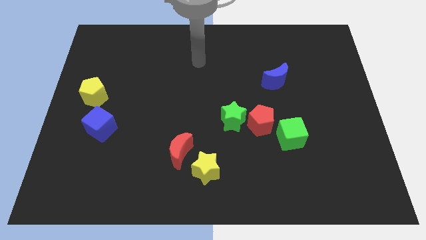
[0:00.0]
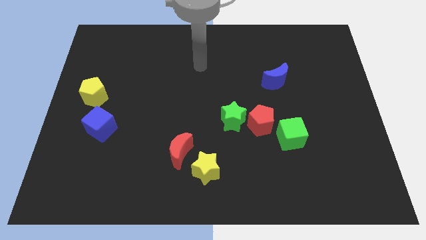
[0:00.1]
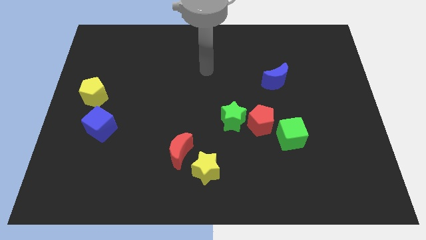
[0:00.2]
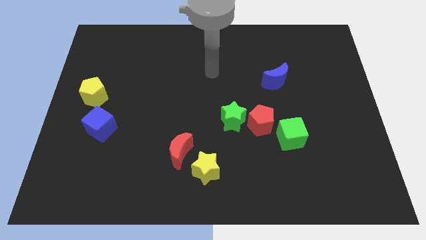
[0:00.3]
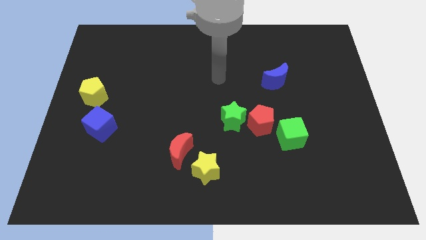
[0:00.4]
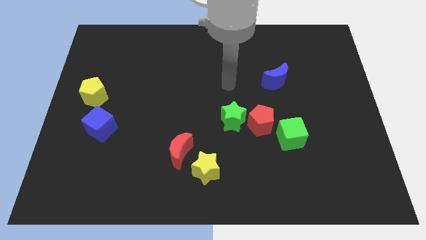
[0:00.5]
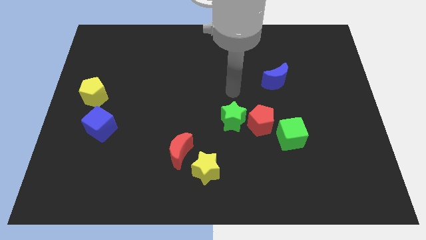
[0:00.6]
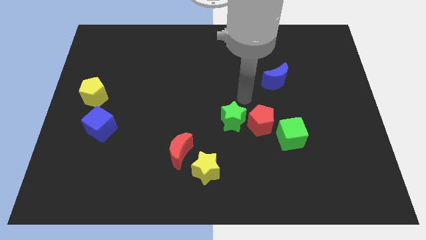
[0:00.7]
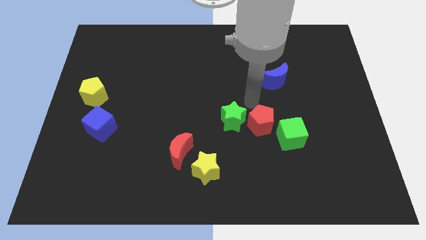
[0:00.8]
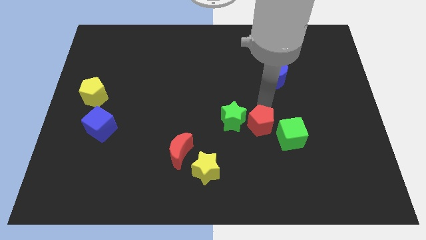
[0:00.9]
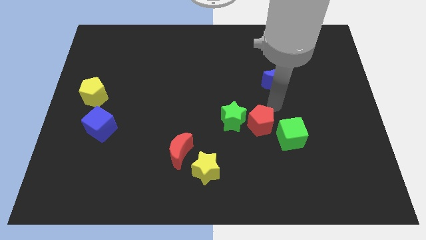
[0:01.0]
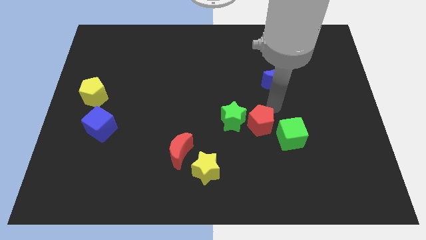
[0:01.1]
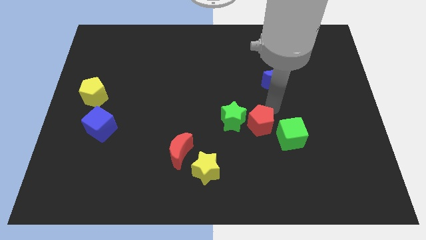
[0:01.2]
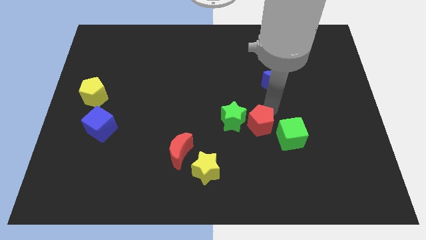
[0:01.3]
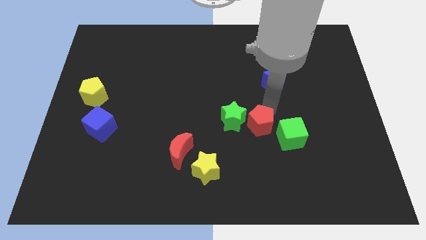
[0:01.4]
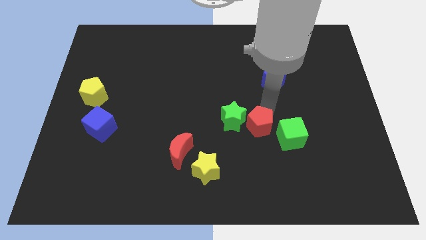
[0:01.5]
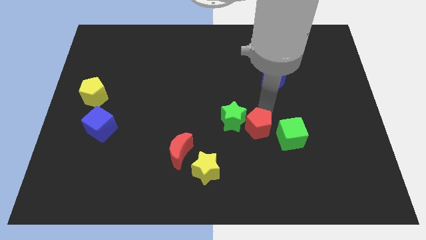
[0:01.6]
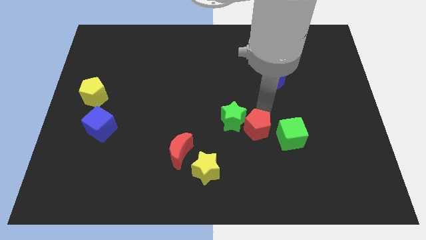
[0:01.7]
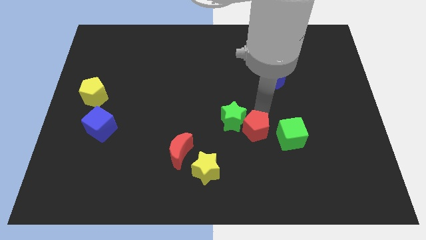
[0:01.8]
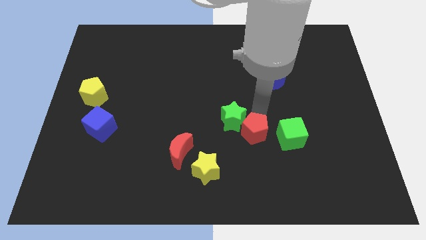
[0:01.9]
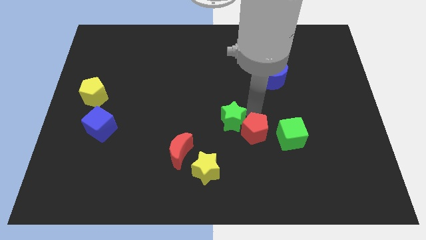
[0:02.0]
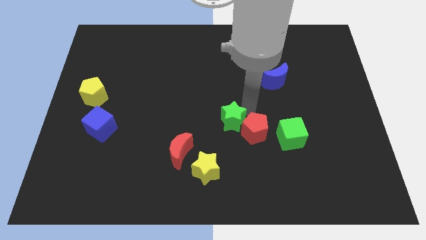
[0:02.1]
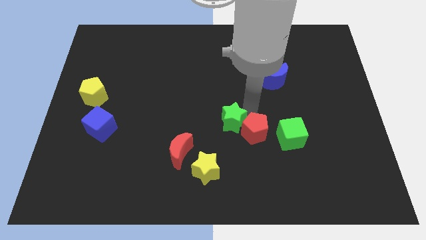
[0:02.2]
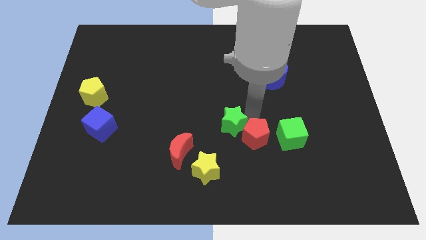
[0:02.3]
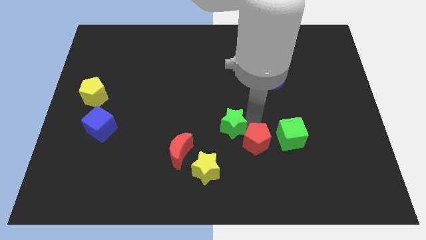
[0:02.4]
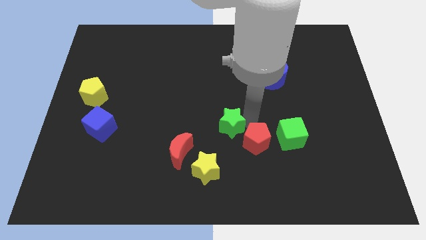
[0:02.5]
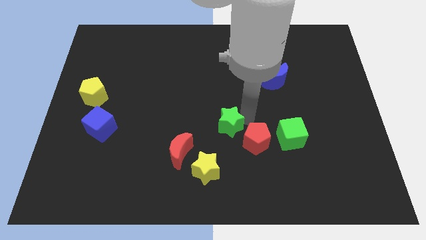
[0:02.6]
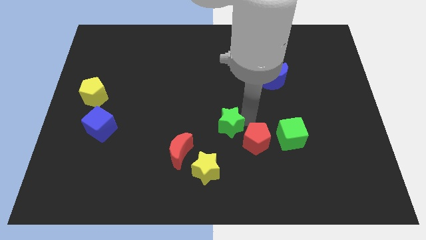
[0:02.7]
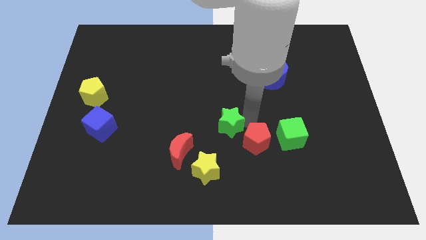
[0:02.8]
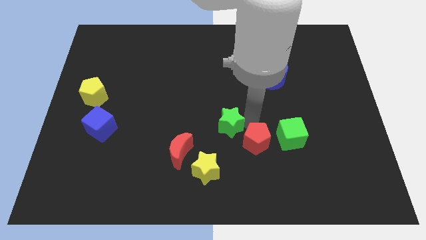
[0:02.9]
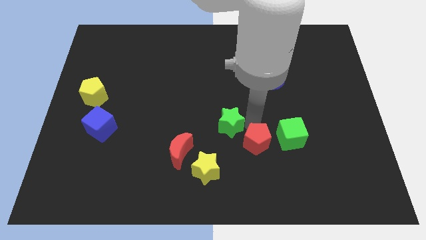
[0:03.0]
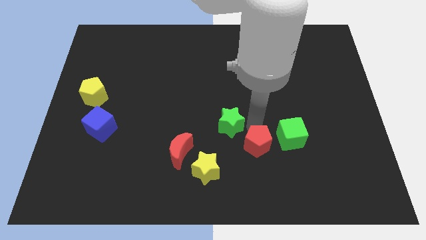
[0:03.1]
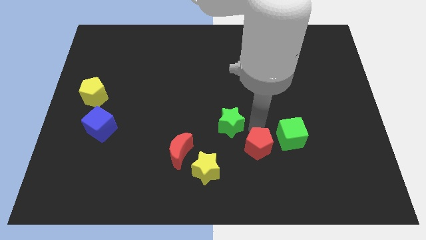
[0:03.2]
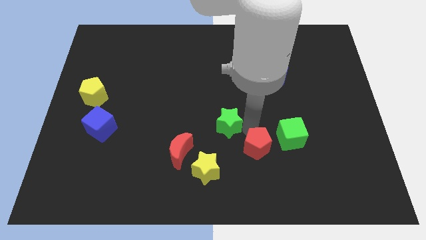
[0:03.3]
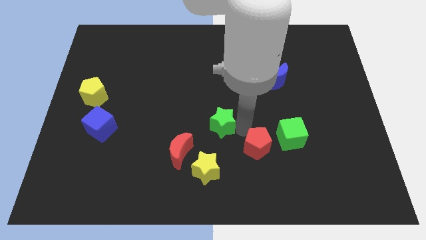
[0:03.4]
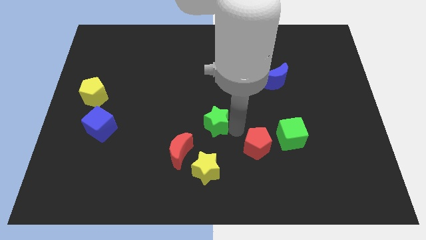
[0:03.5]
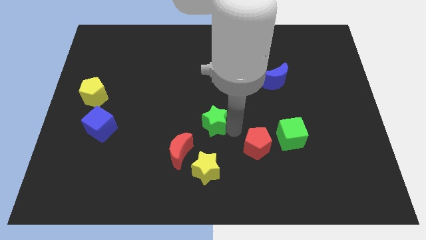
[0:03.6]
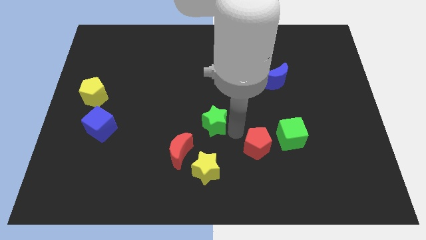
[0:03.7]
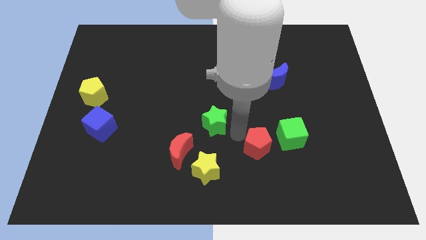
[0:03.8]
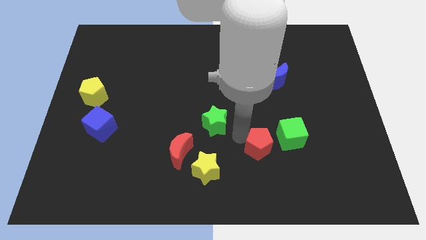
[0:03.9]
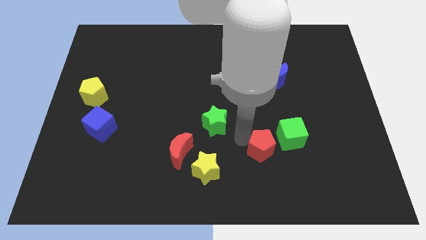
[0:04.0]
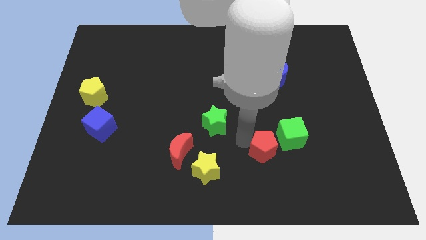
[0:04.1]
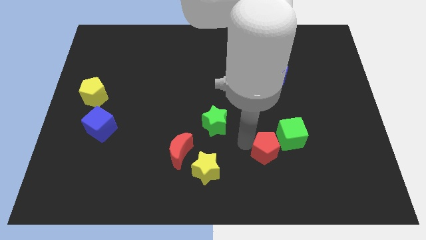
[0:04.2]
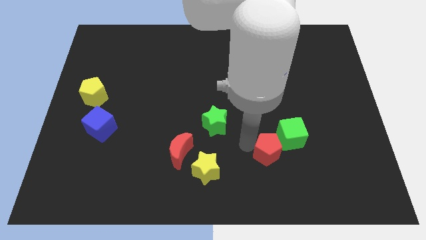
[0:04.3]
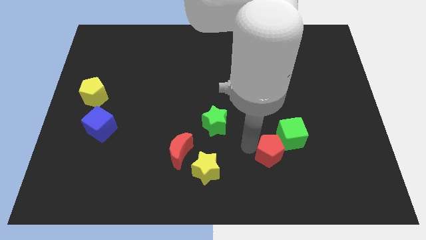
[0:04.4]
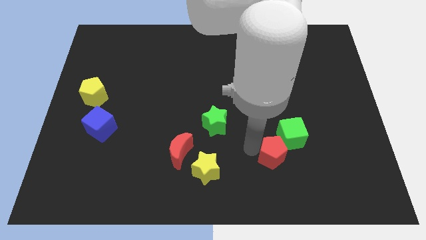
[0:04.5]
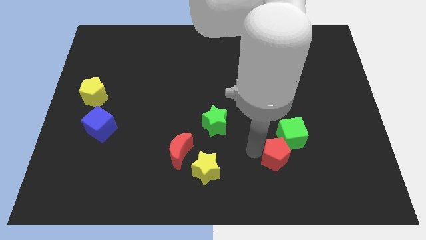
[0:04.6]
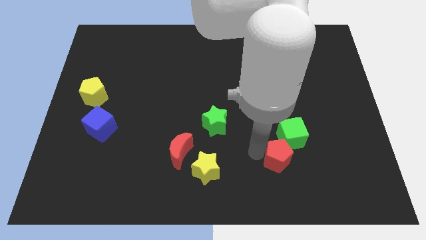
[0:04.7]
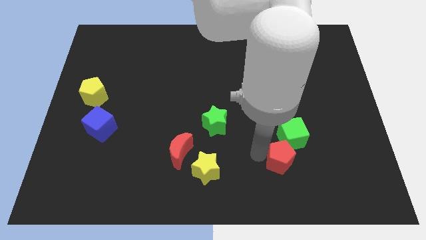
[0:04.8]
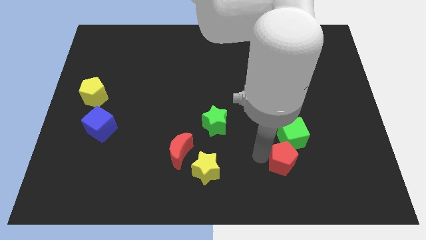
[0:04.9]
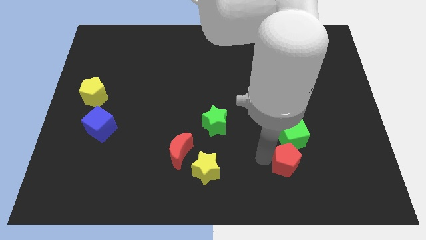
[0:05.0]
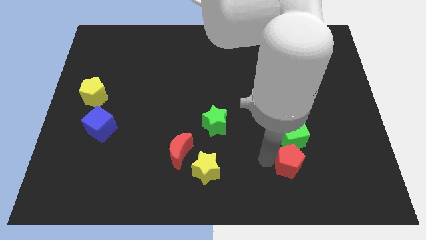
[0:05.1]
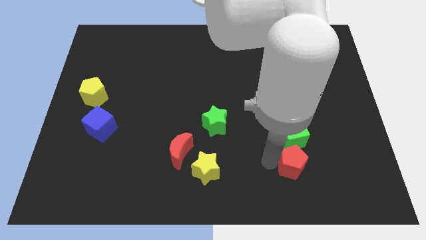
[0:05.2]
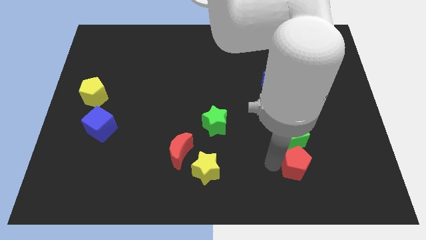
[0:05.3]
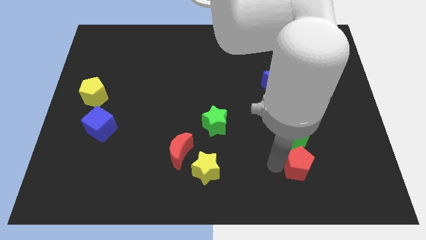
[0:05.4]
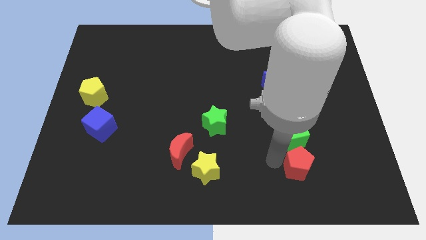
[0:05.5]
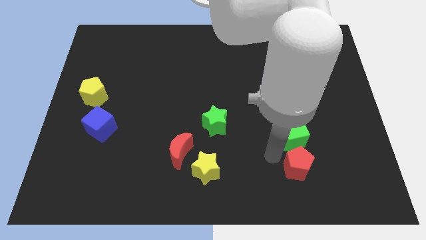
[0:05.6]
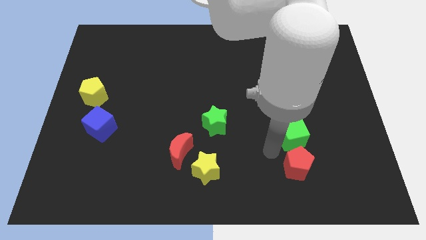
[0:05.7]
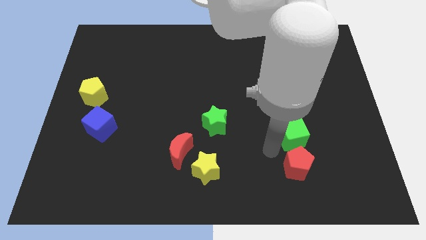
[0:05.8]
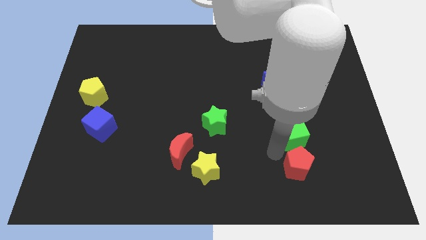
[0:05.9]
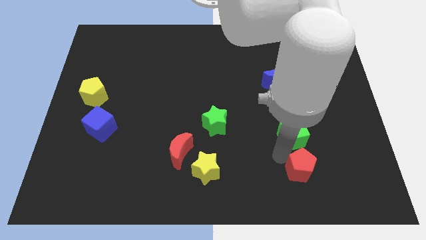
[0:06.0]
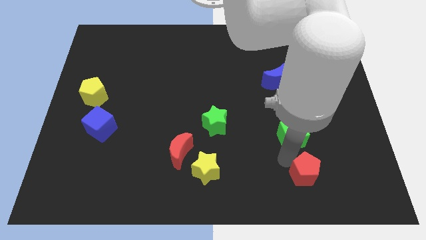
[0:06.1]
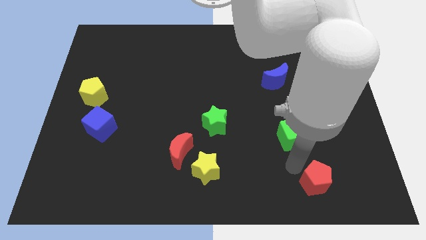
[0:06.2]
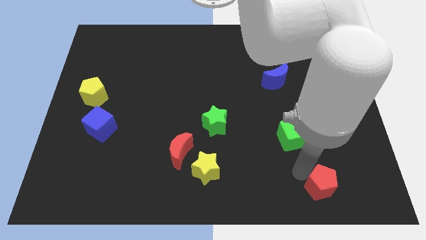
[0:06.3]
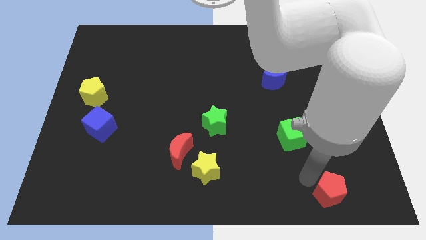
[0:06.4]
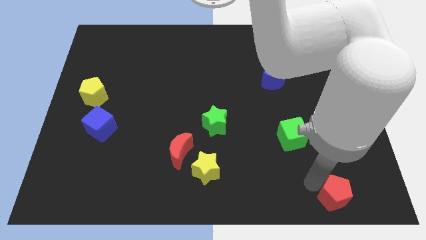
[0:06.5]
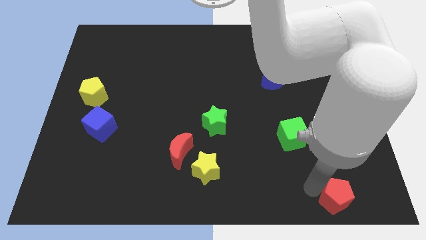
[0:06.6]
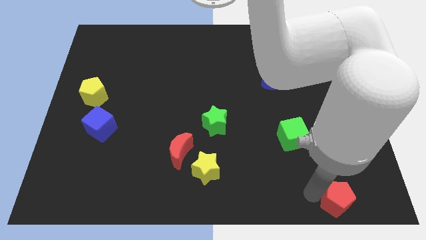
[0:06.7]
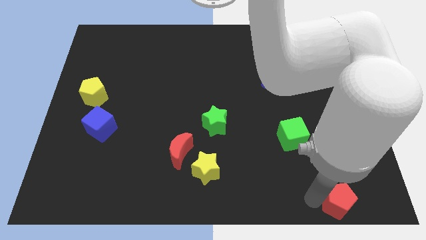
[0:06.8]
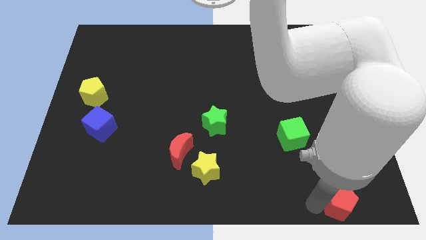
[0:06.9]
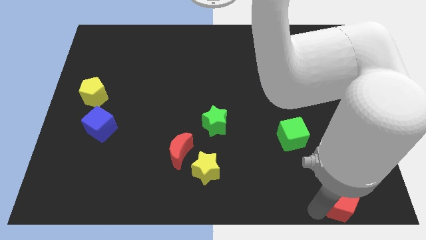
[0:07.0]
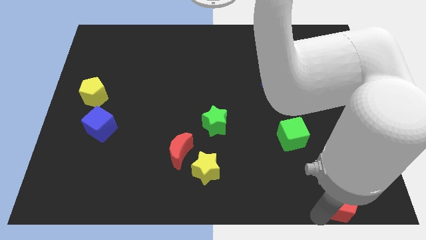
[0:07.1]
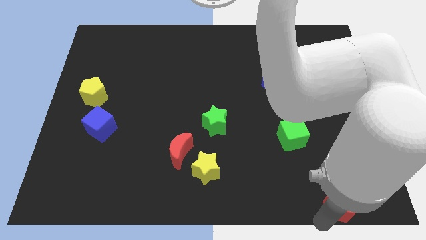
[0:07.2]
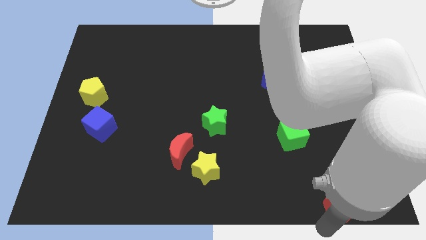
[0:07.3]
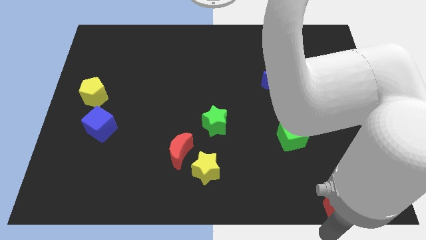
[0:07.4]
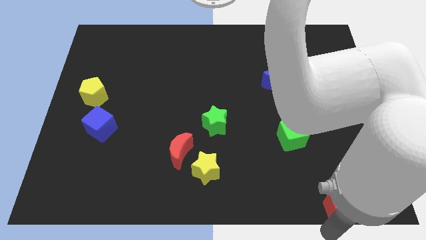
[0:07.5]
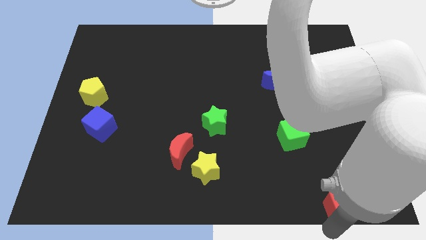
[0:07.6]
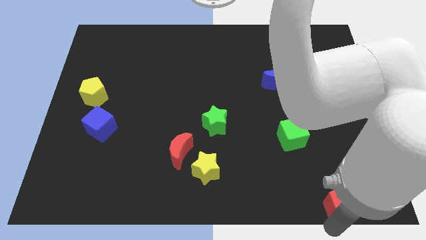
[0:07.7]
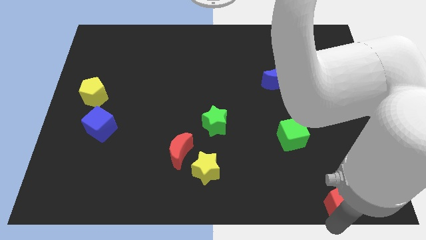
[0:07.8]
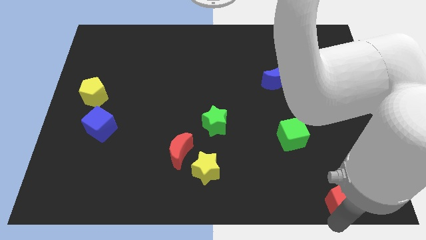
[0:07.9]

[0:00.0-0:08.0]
slide the red pentagon to the bottom right corner
